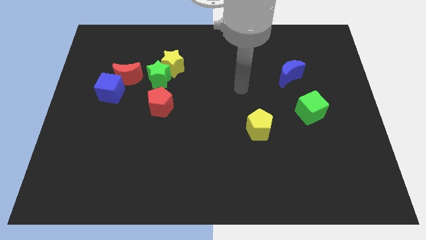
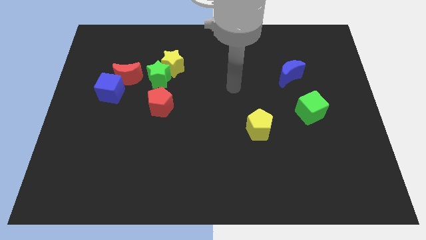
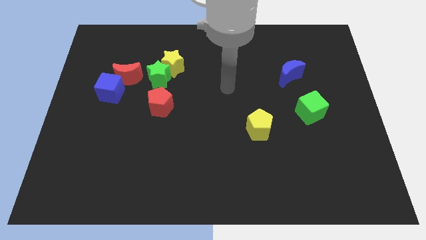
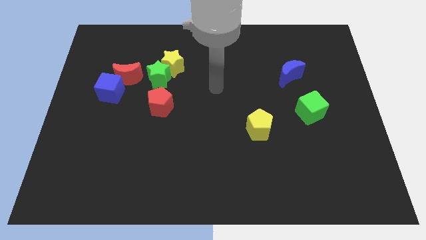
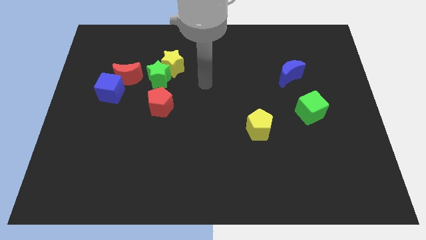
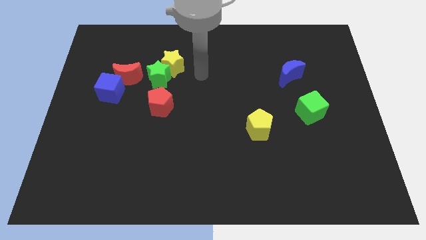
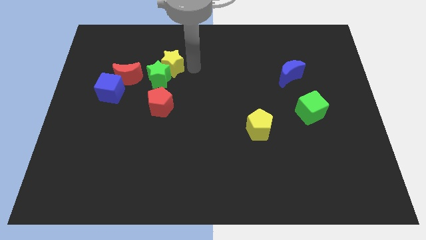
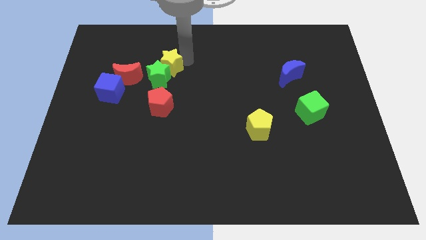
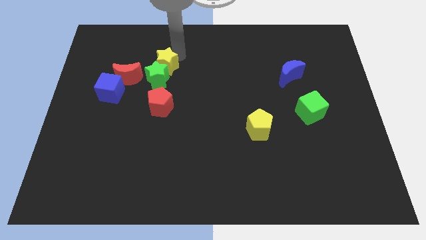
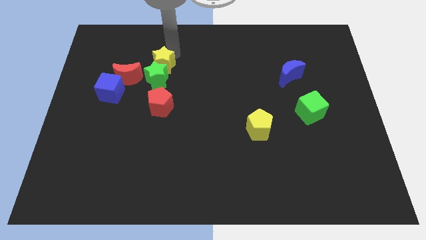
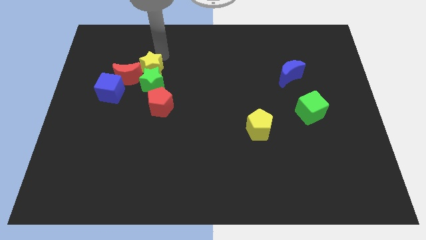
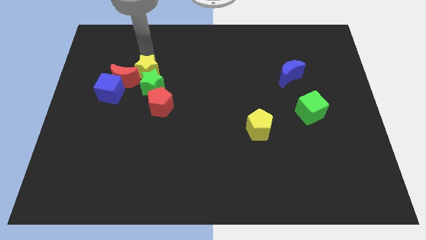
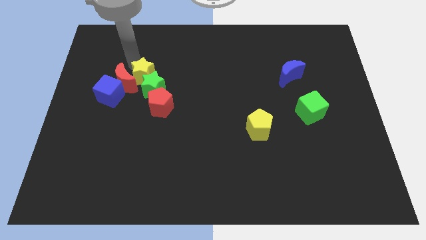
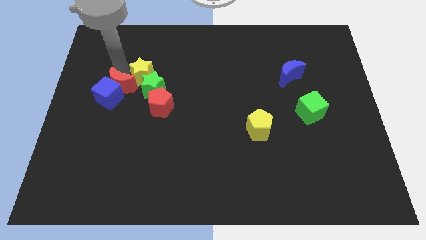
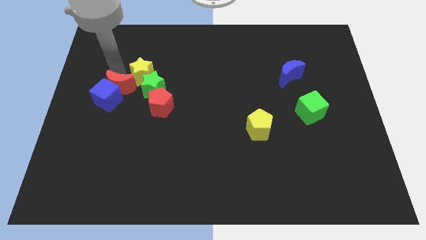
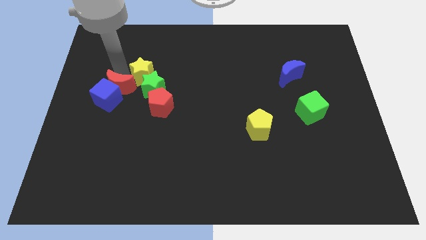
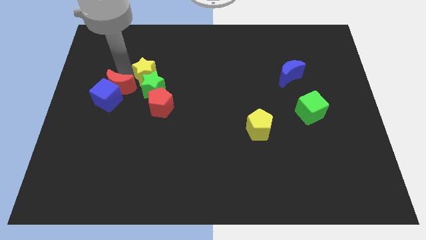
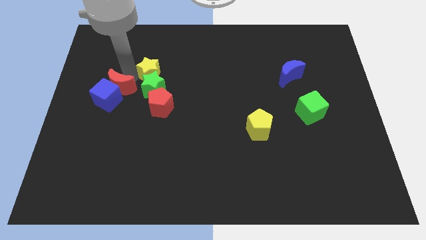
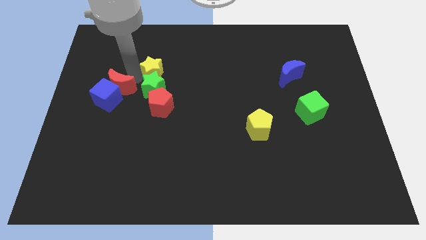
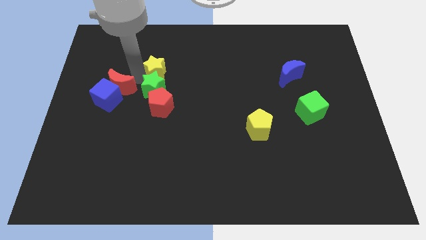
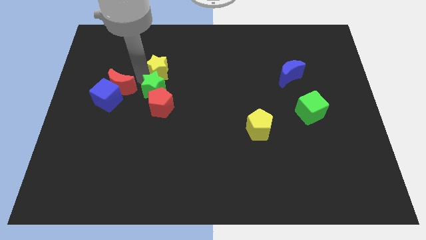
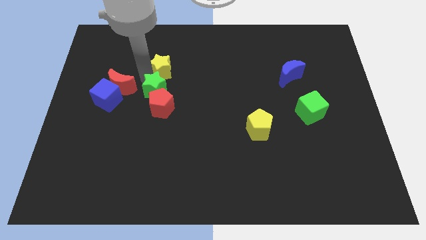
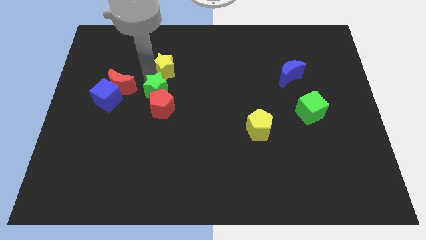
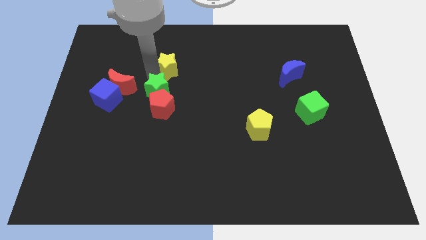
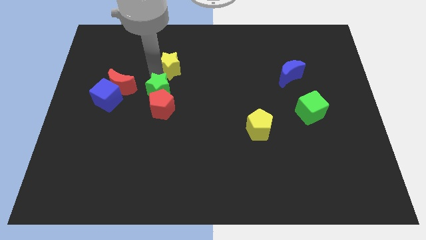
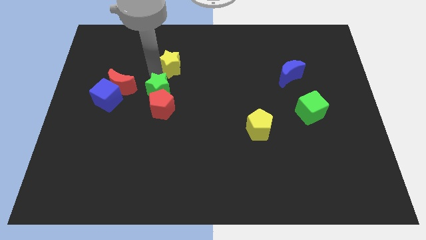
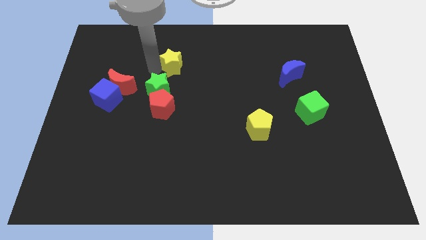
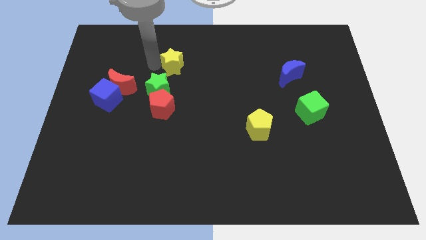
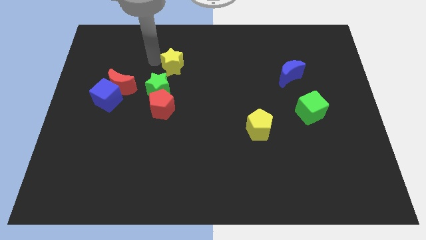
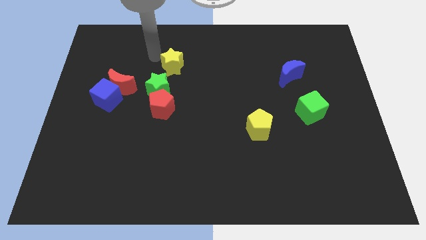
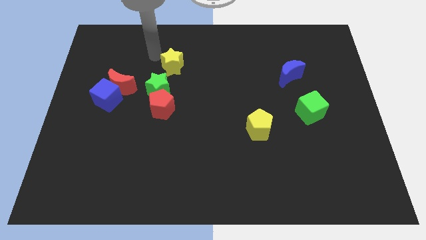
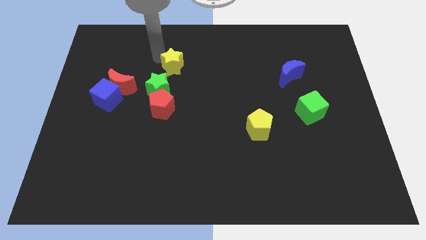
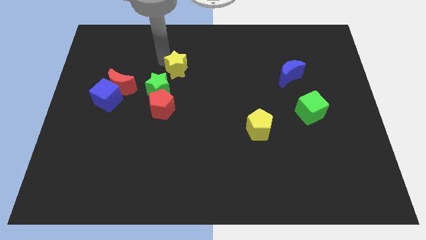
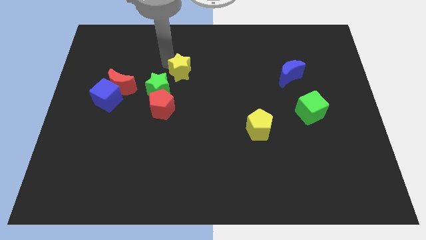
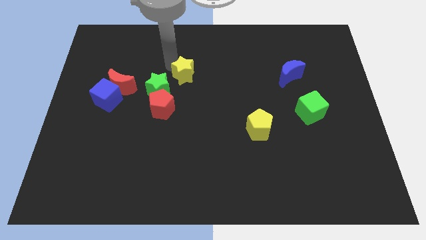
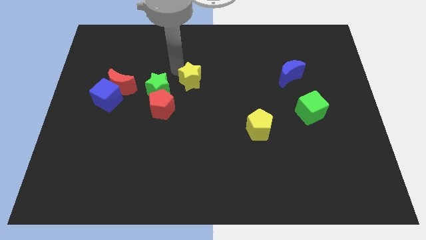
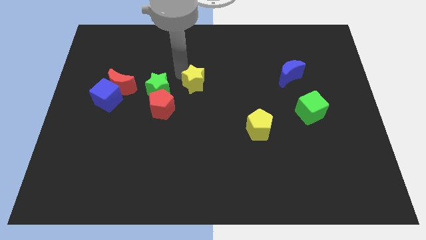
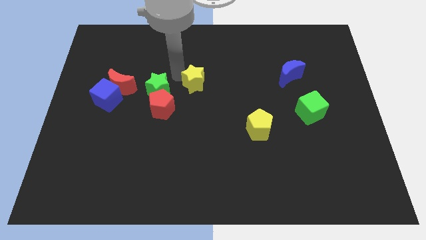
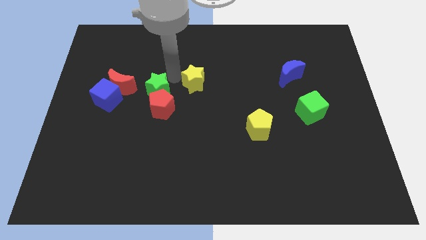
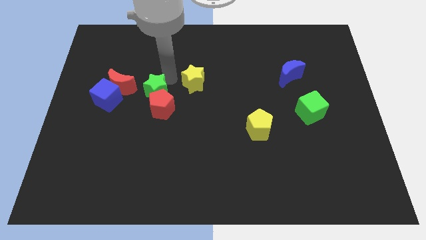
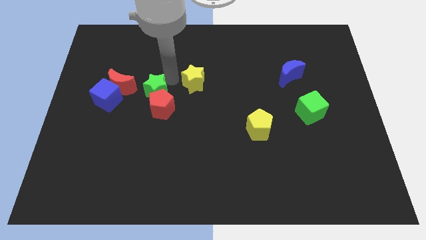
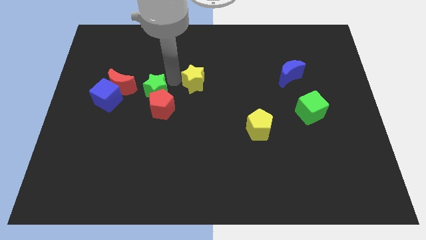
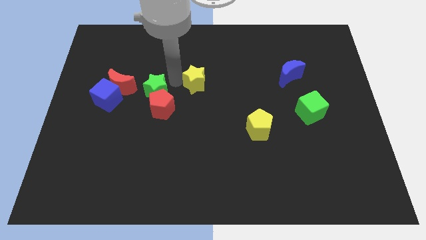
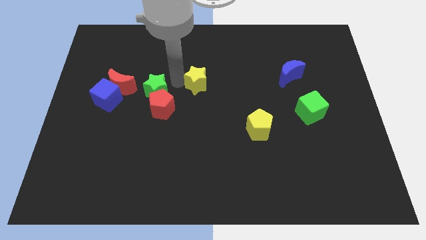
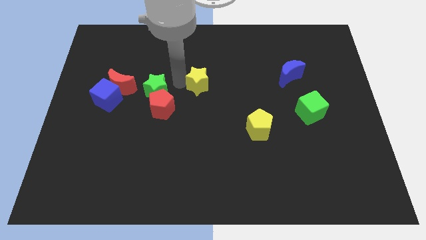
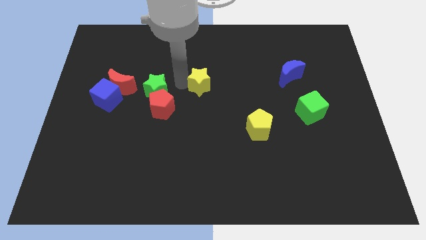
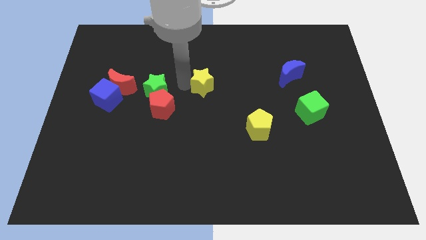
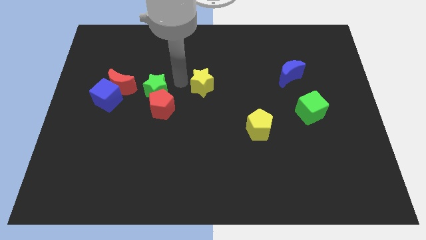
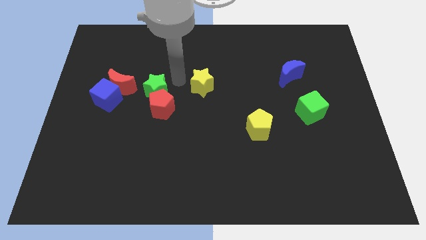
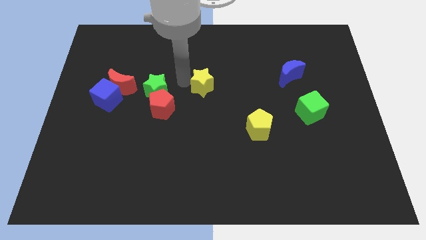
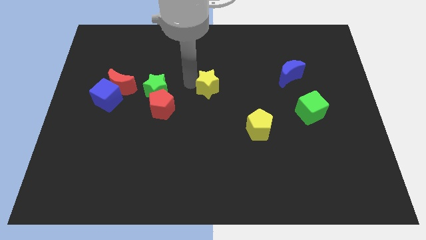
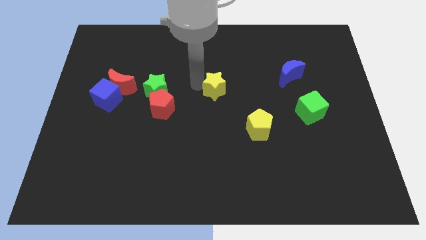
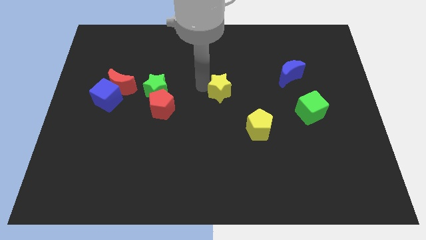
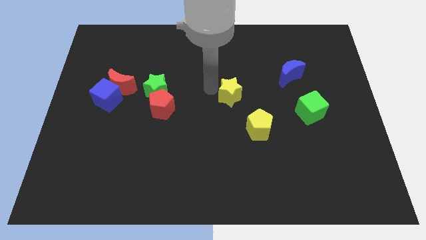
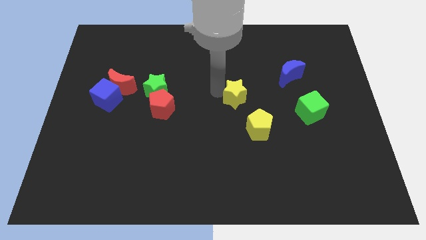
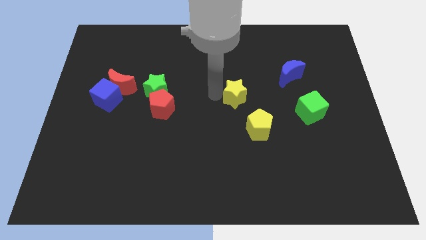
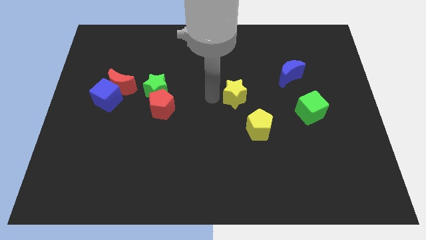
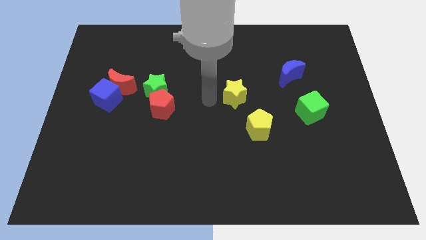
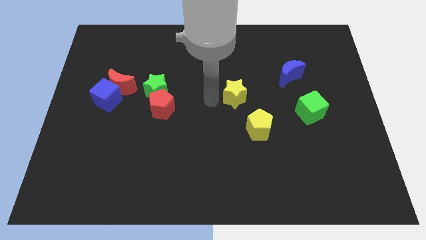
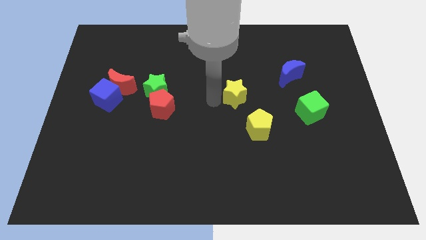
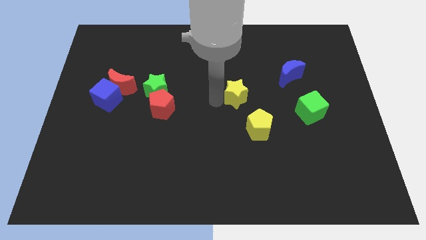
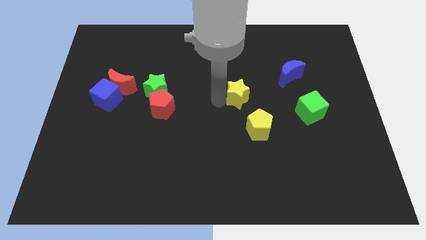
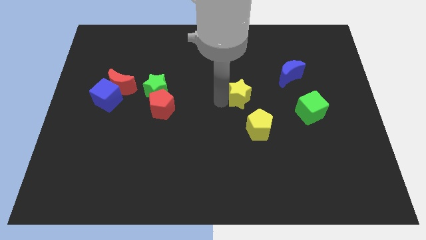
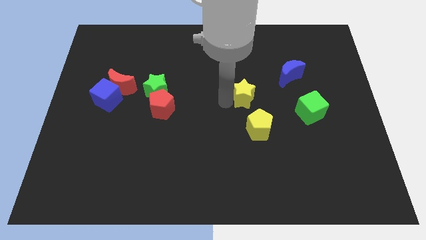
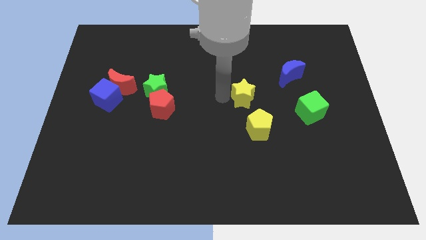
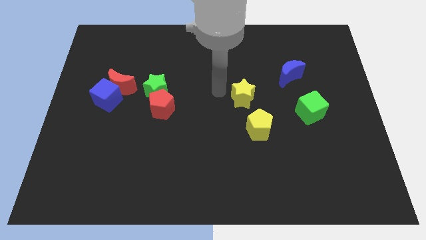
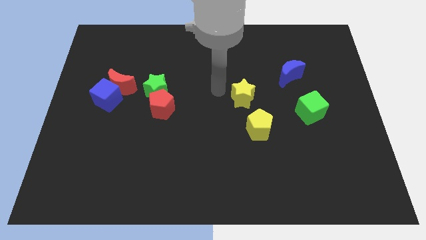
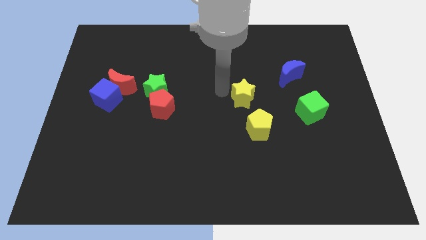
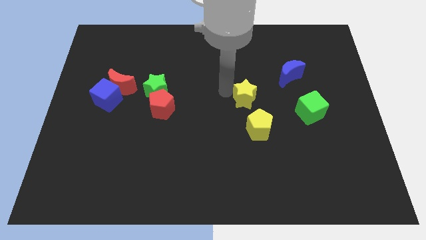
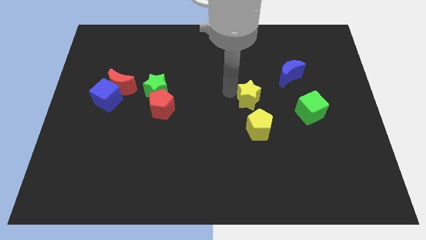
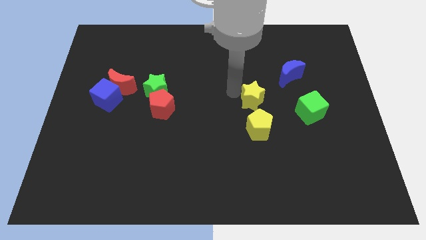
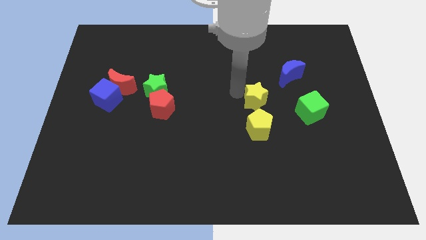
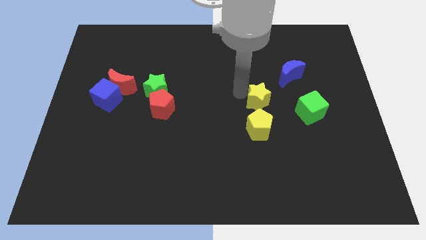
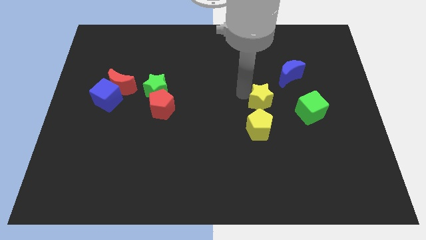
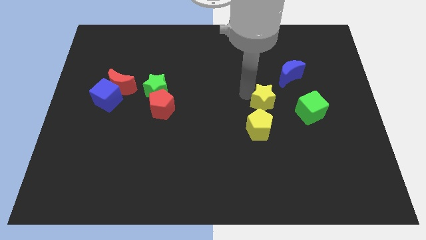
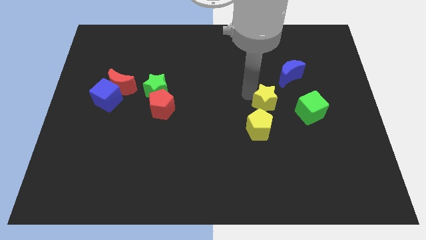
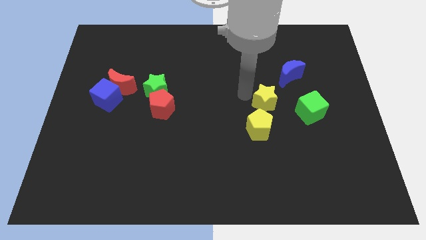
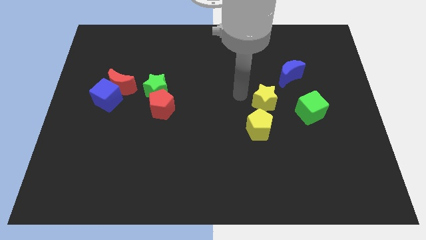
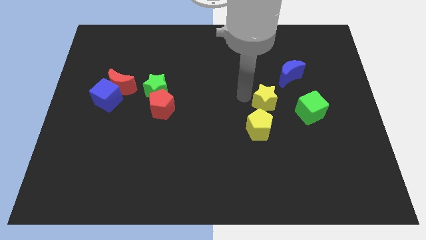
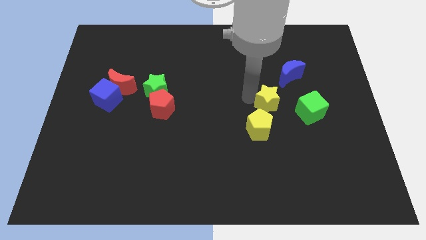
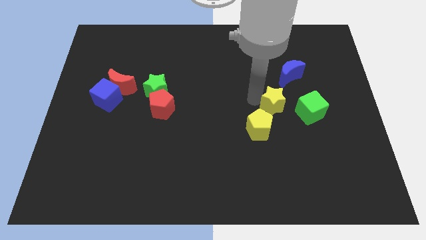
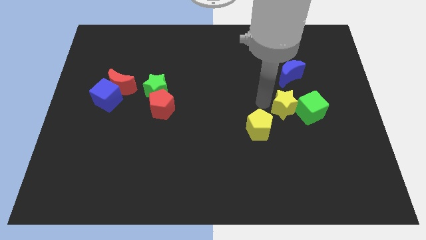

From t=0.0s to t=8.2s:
put the yellow star close to the green cube
